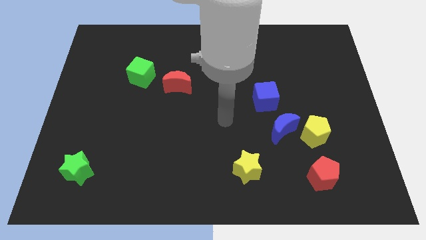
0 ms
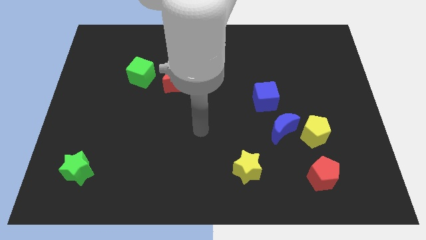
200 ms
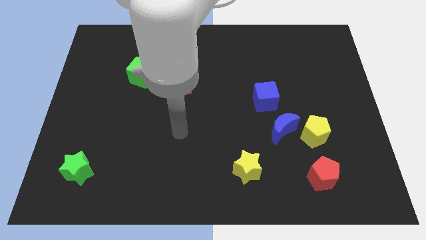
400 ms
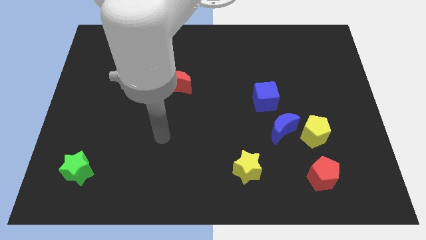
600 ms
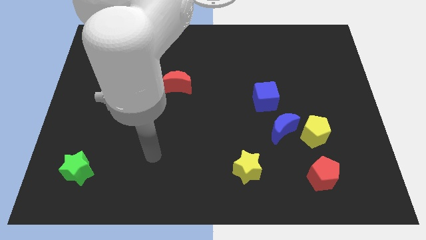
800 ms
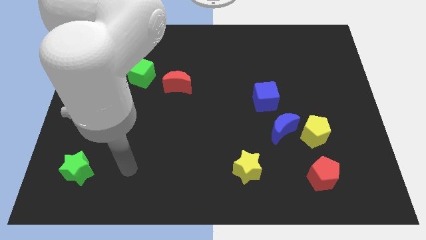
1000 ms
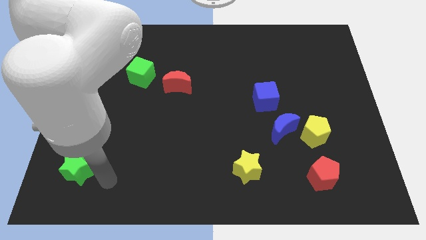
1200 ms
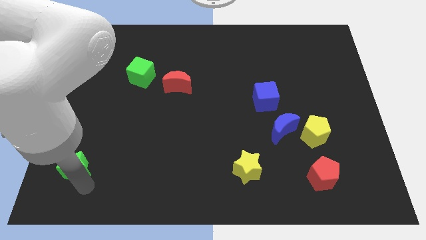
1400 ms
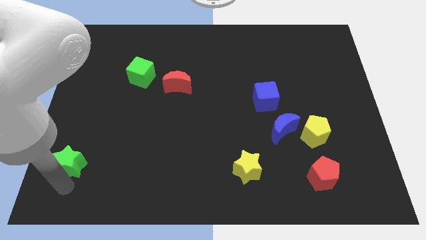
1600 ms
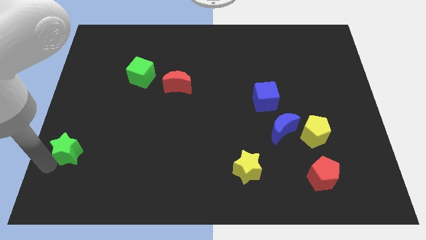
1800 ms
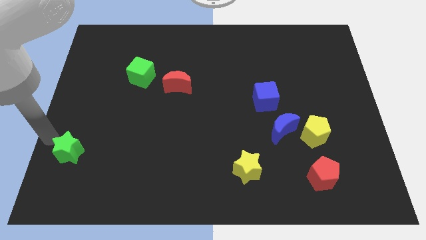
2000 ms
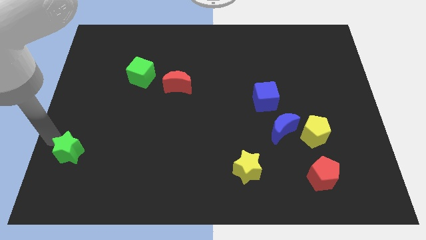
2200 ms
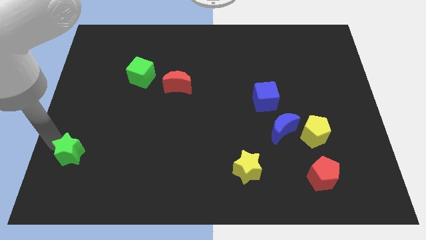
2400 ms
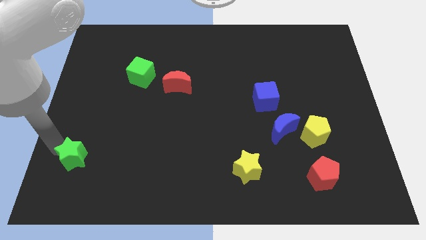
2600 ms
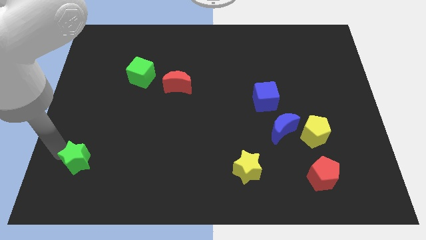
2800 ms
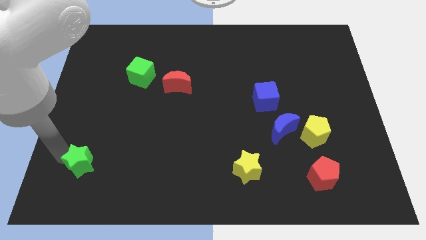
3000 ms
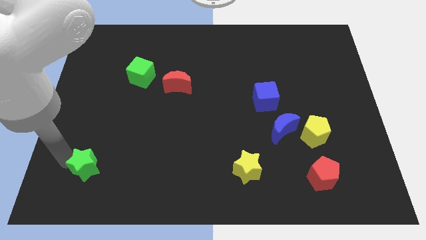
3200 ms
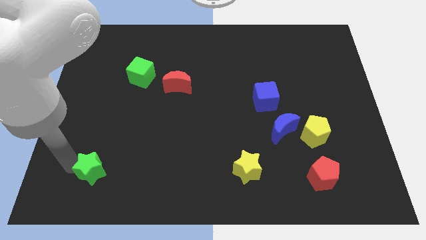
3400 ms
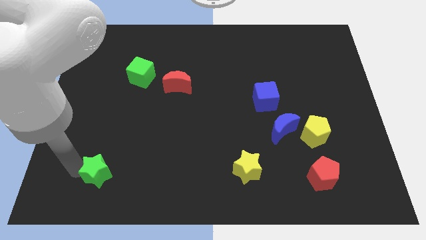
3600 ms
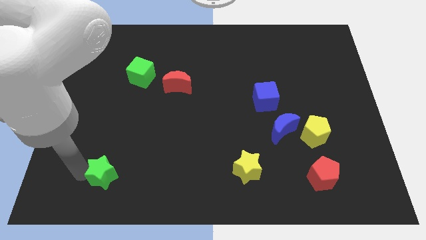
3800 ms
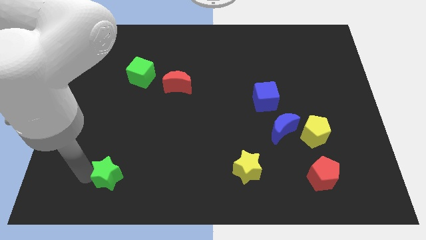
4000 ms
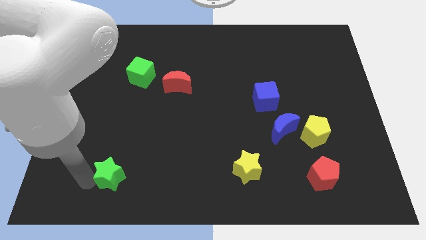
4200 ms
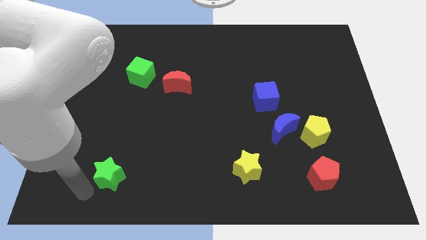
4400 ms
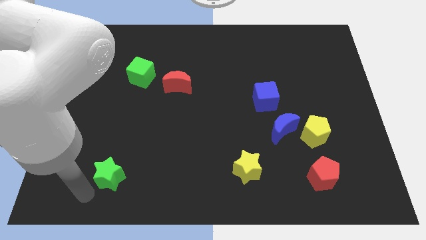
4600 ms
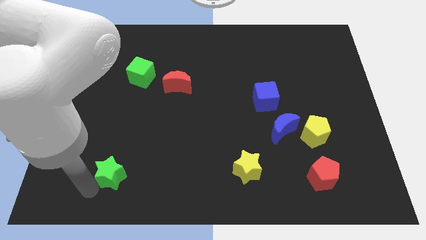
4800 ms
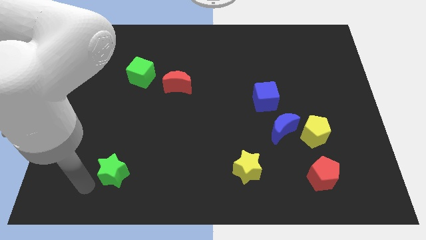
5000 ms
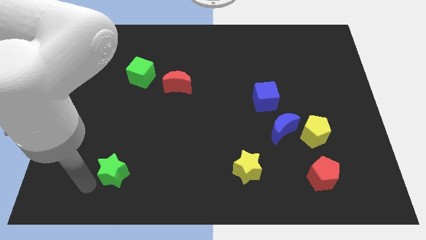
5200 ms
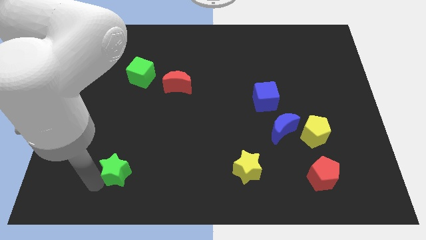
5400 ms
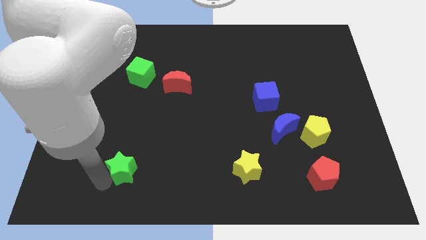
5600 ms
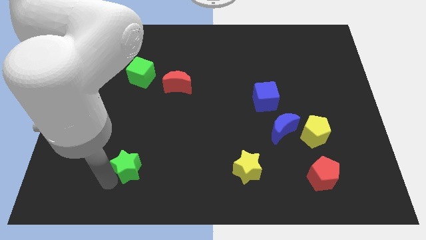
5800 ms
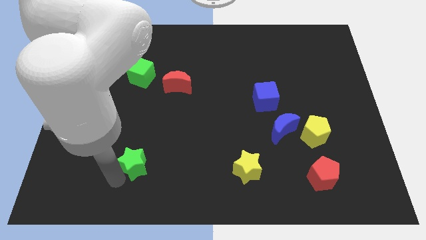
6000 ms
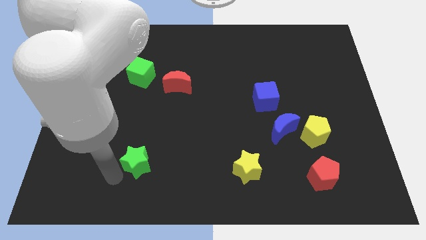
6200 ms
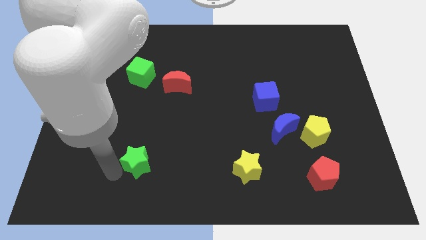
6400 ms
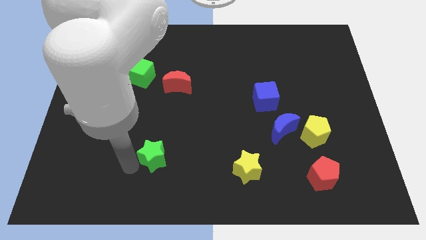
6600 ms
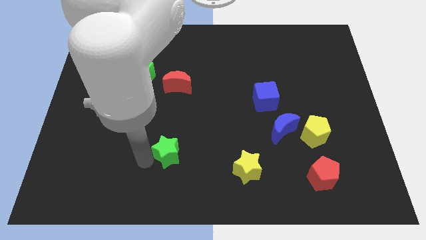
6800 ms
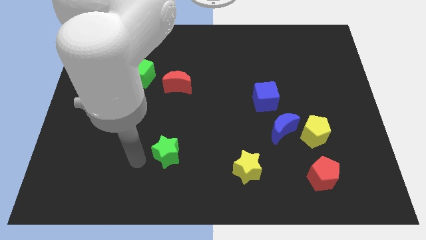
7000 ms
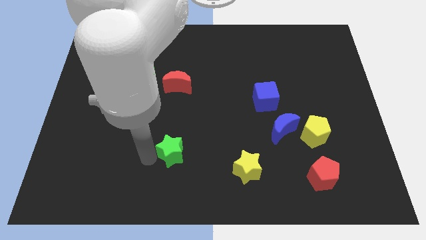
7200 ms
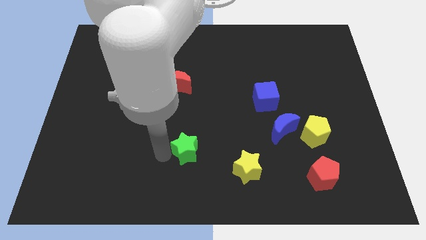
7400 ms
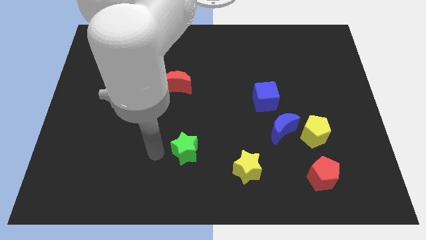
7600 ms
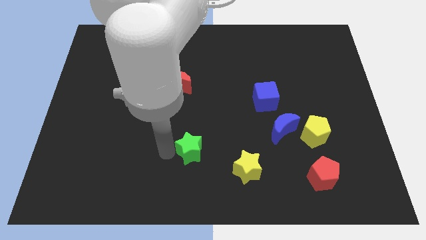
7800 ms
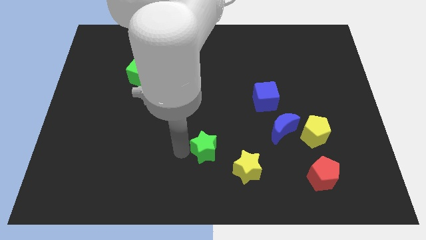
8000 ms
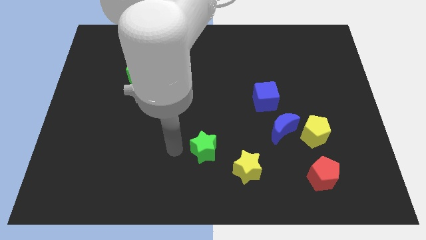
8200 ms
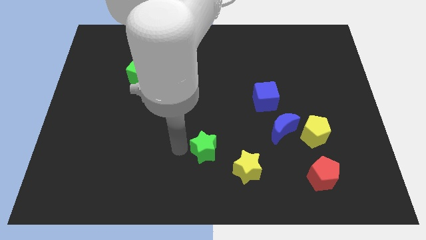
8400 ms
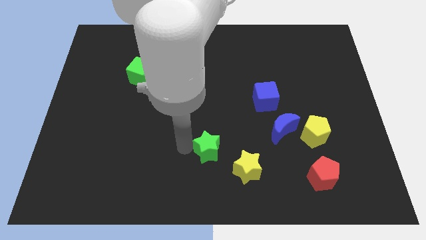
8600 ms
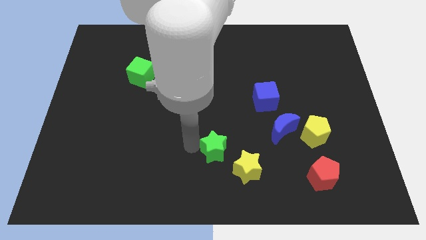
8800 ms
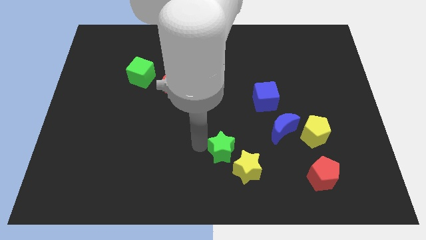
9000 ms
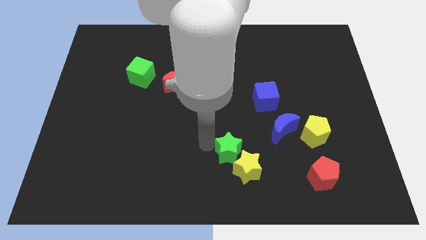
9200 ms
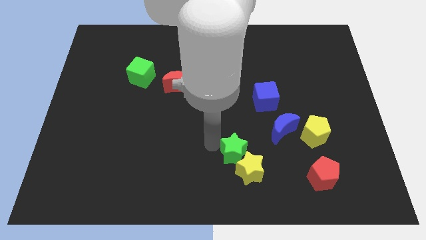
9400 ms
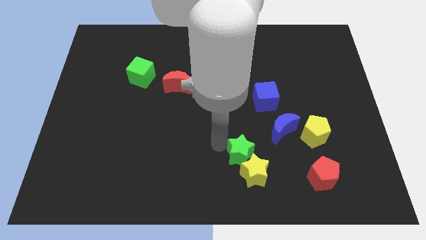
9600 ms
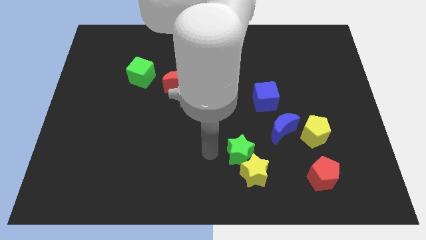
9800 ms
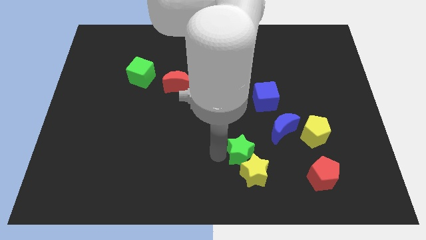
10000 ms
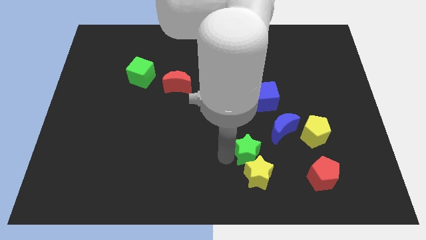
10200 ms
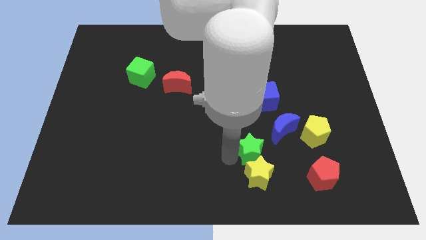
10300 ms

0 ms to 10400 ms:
put the green star to the top right side of the yellow star

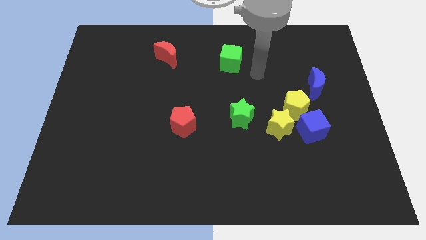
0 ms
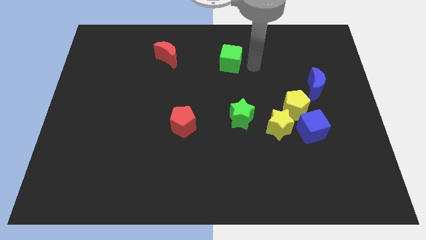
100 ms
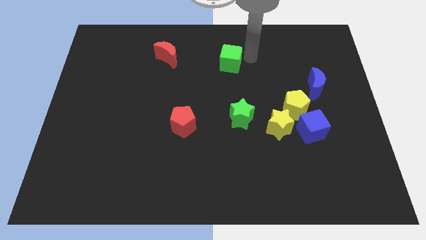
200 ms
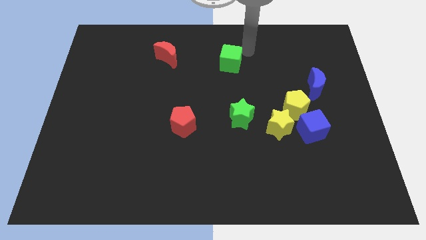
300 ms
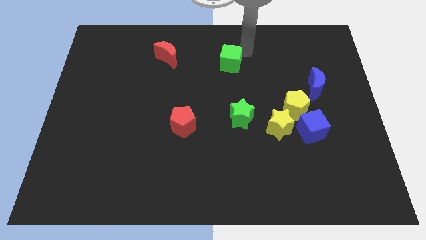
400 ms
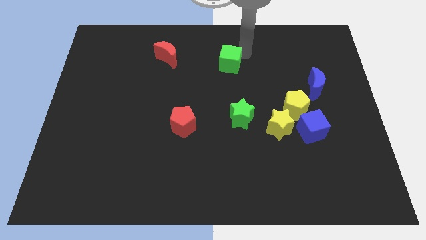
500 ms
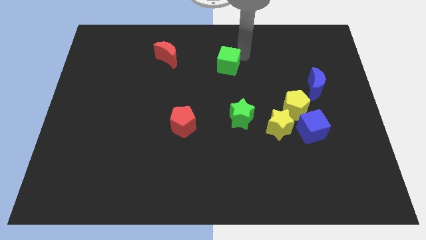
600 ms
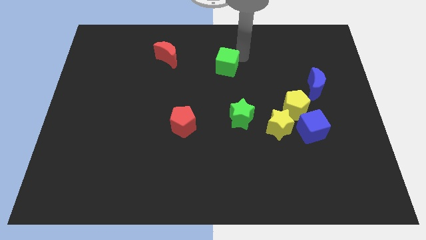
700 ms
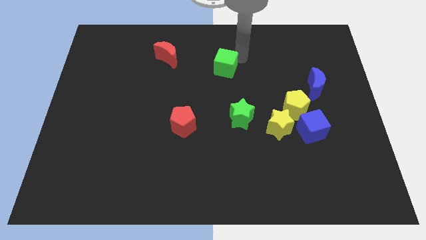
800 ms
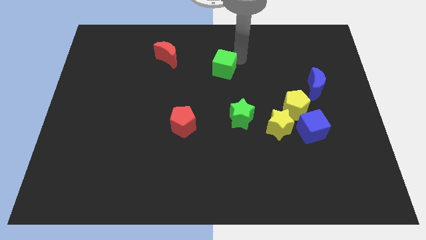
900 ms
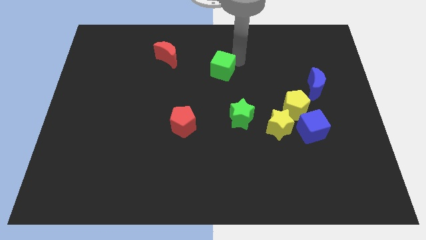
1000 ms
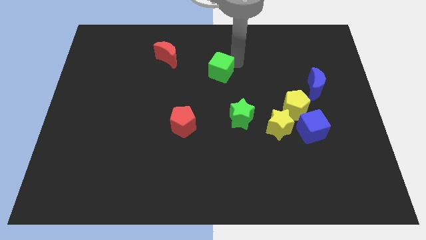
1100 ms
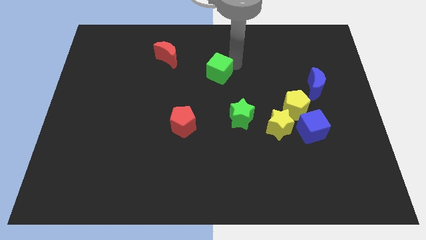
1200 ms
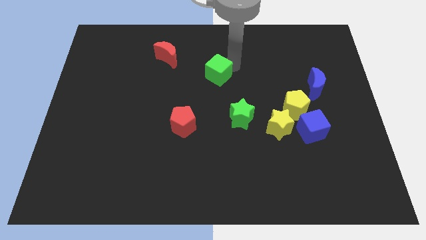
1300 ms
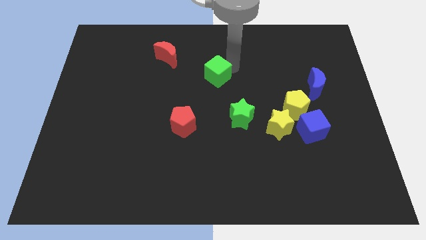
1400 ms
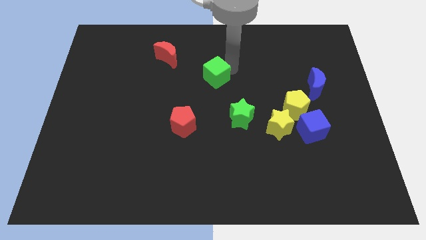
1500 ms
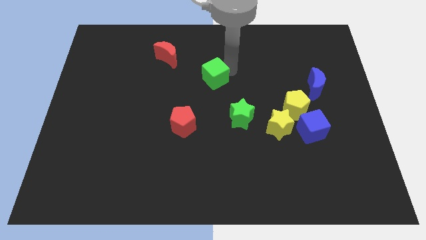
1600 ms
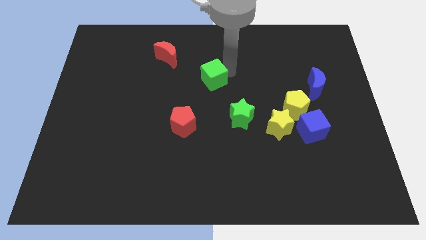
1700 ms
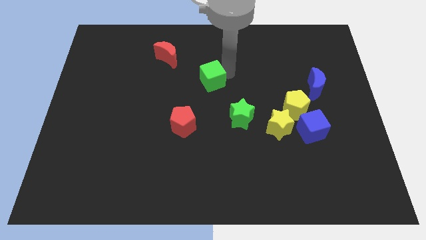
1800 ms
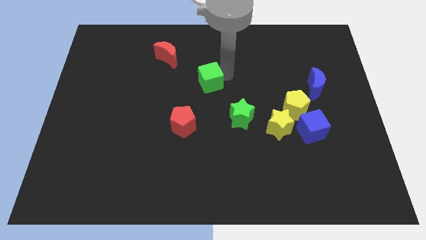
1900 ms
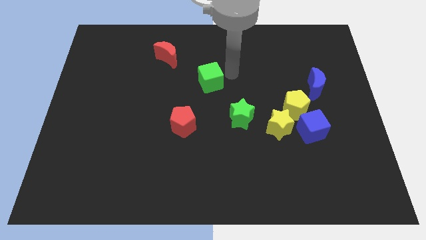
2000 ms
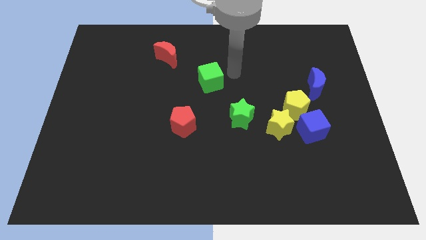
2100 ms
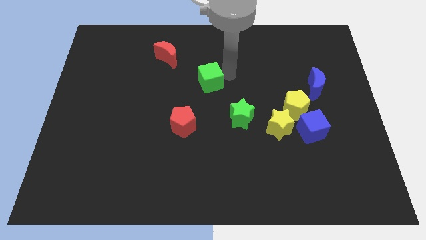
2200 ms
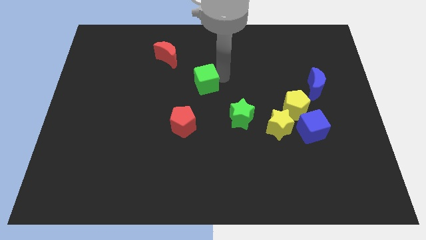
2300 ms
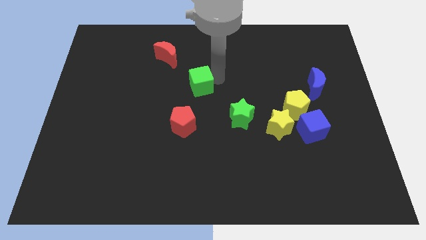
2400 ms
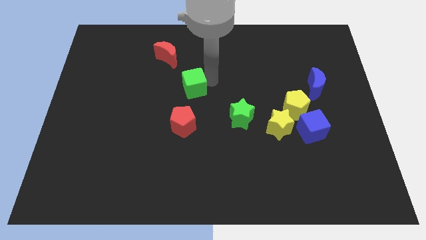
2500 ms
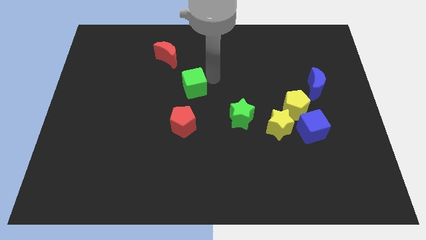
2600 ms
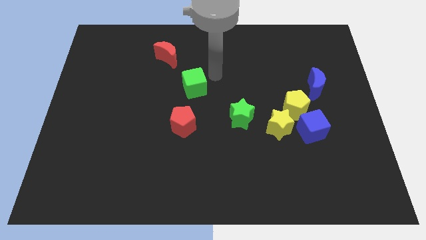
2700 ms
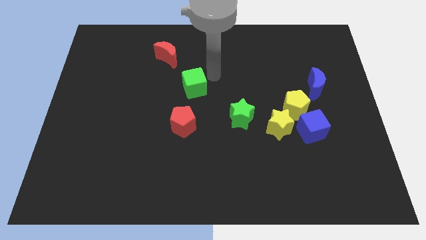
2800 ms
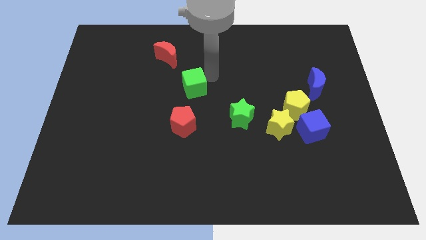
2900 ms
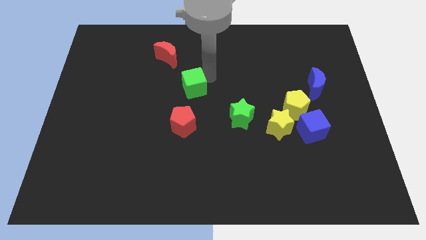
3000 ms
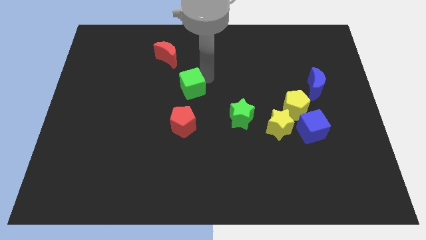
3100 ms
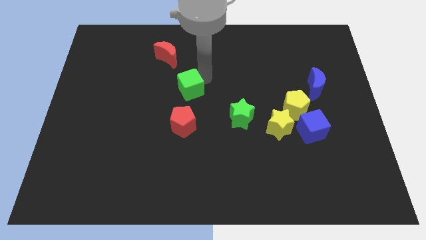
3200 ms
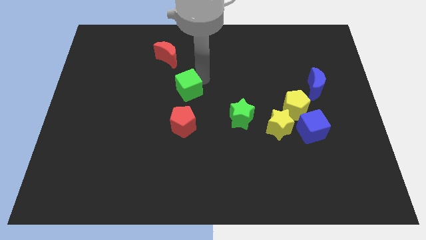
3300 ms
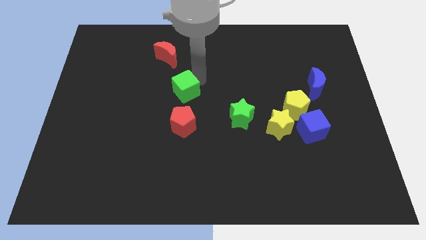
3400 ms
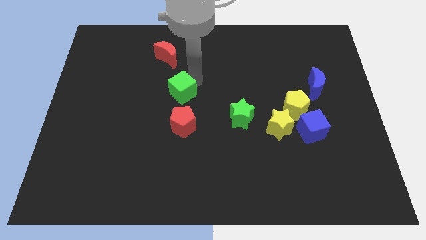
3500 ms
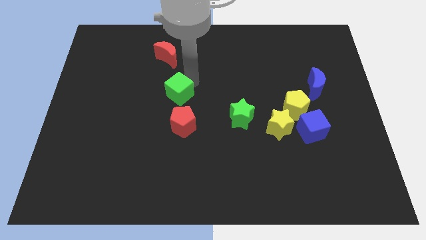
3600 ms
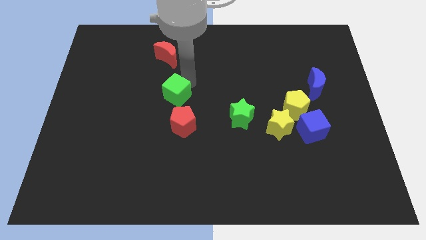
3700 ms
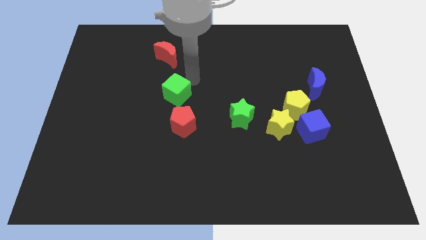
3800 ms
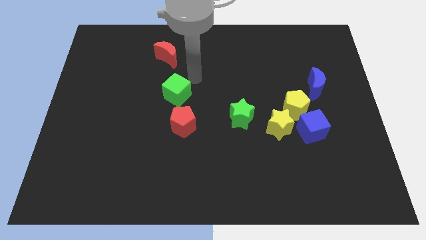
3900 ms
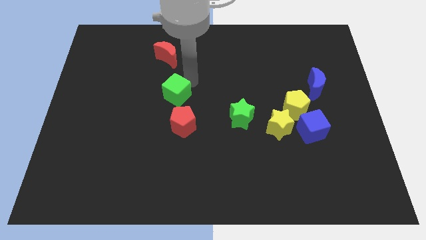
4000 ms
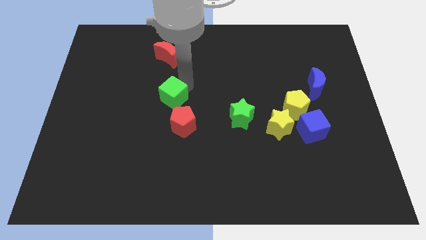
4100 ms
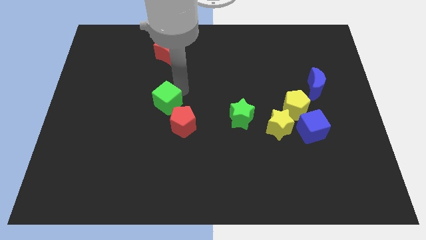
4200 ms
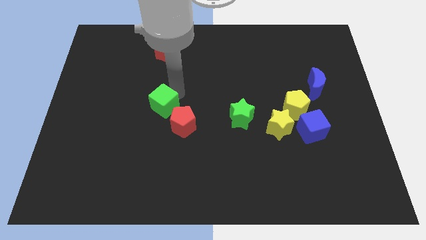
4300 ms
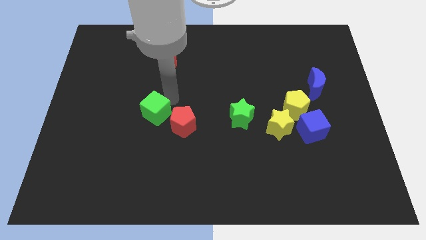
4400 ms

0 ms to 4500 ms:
push the green cube just left of the red pentagon
